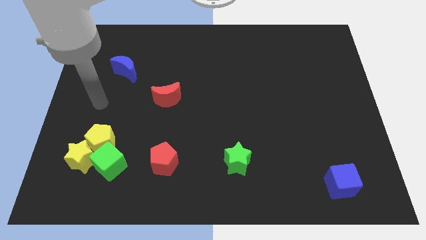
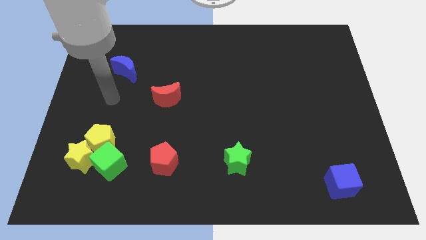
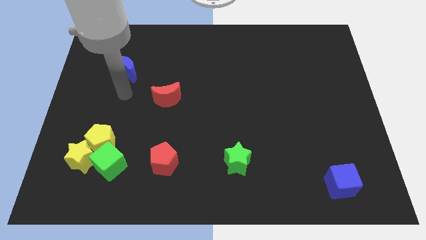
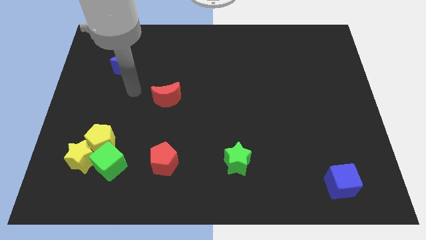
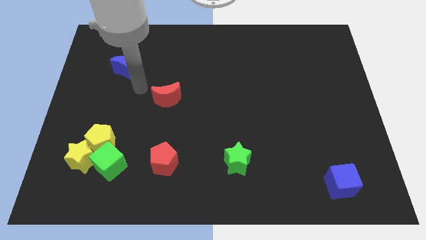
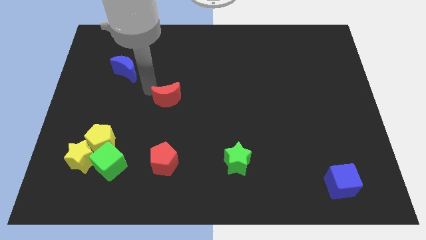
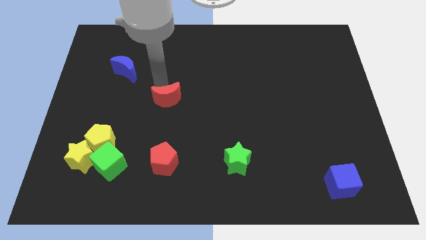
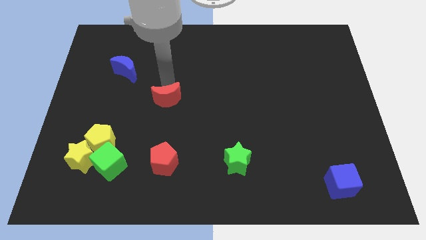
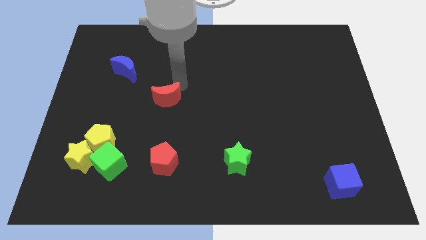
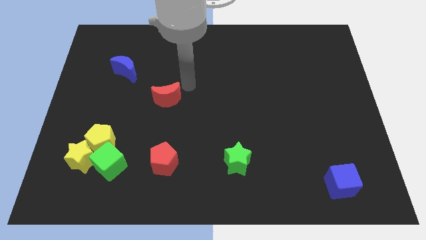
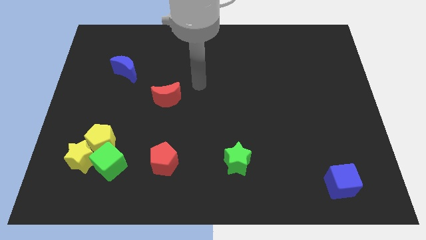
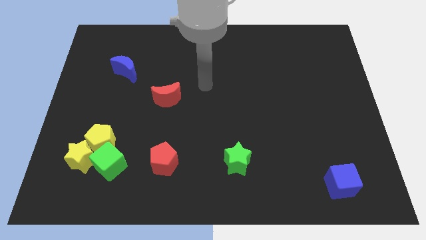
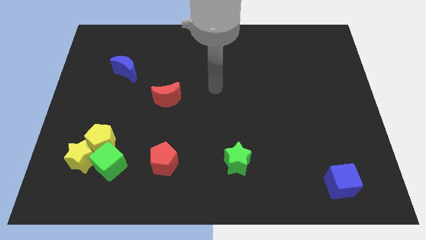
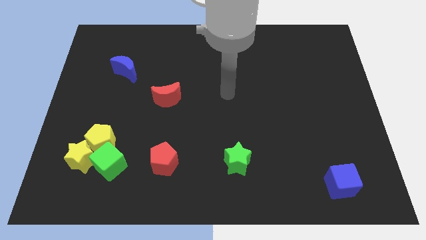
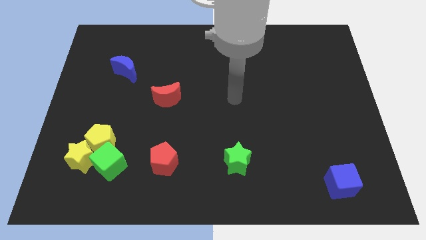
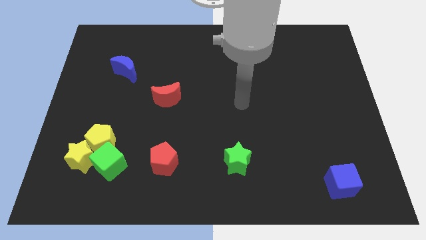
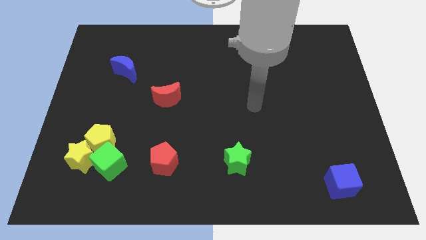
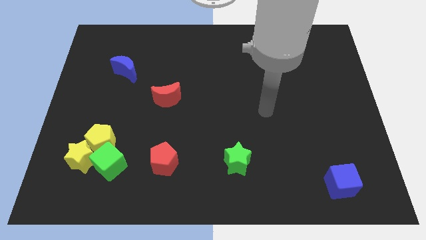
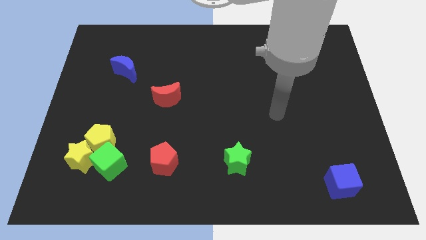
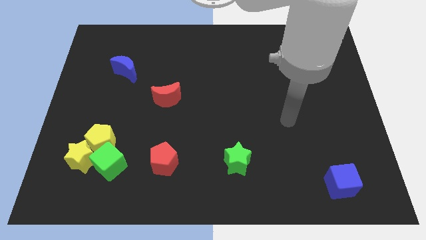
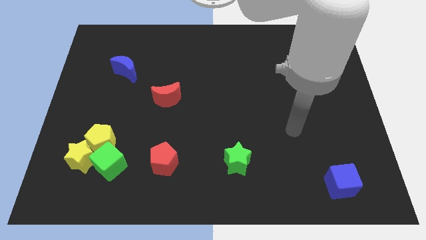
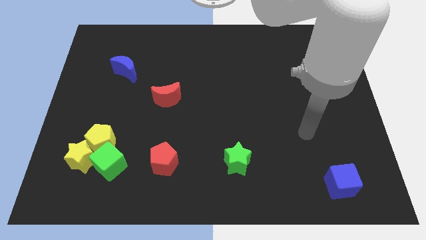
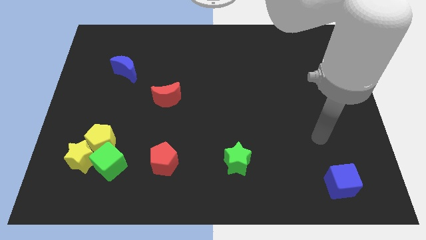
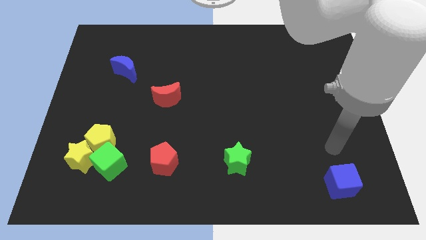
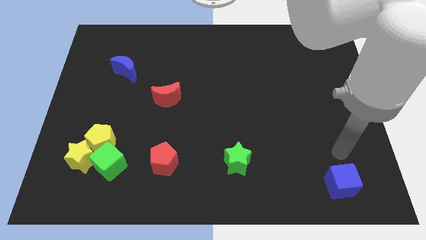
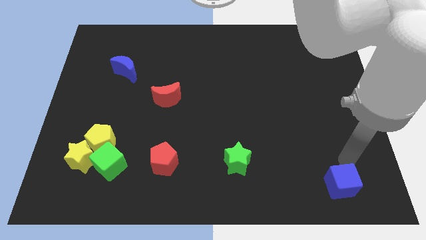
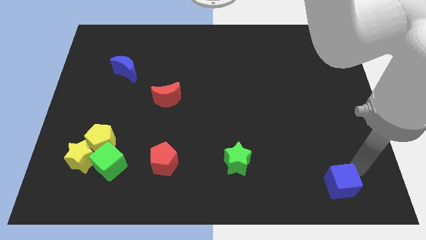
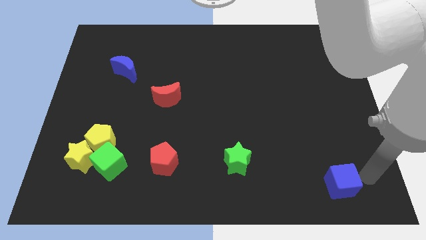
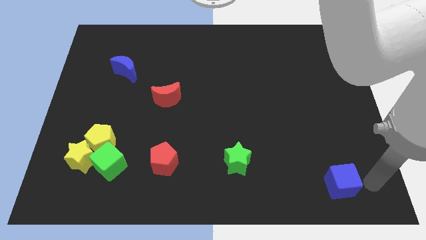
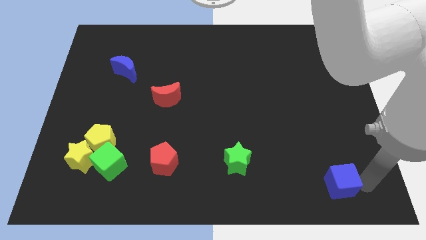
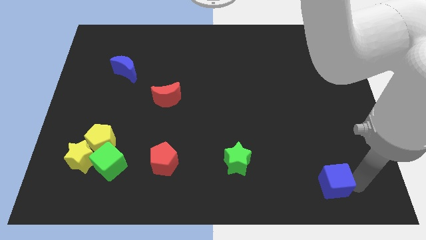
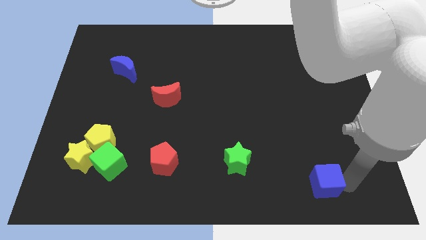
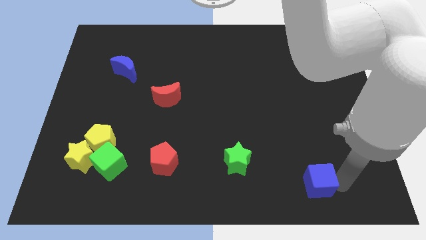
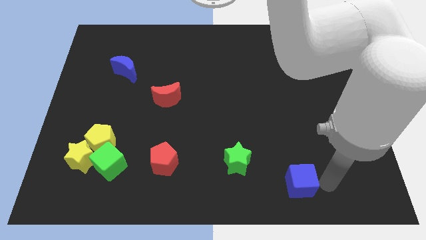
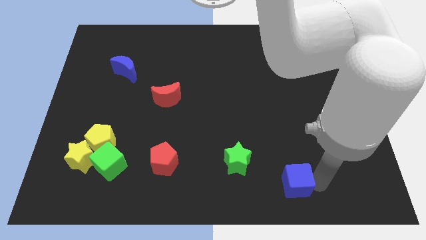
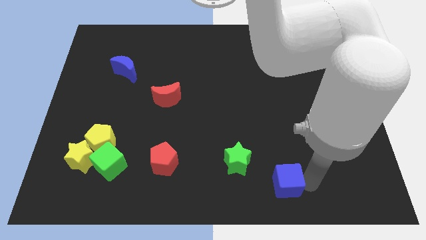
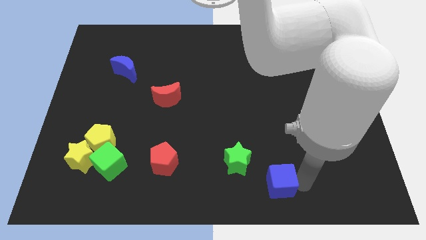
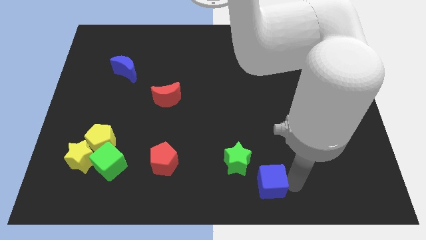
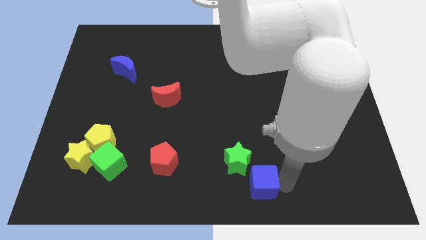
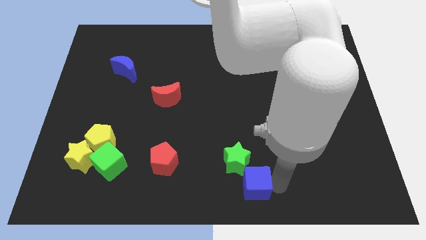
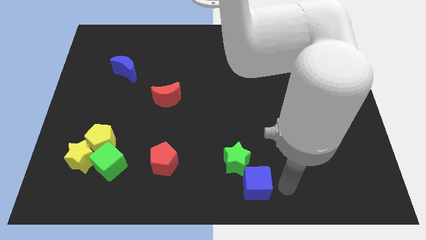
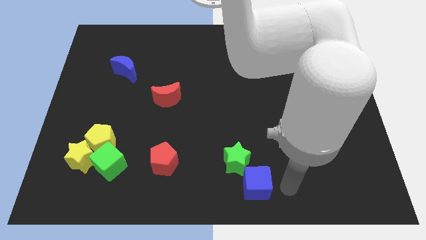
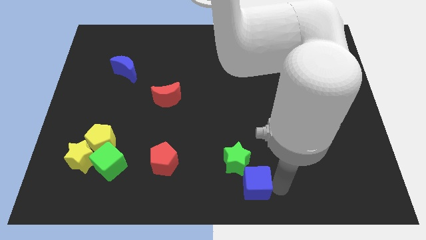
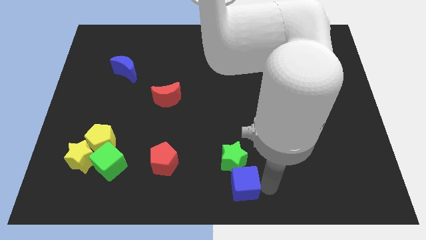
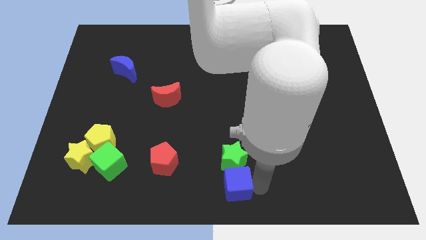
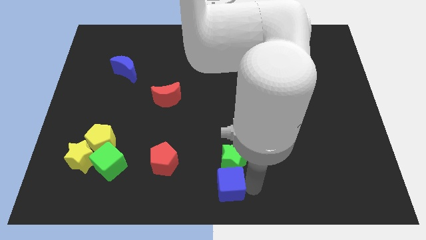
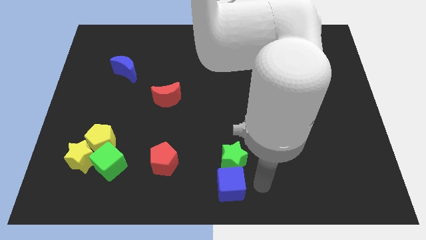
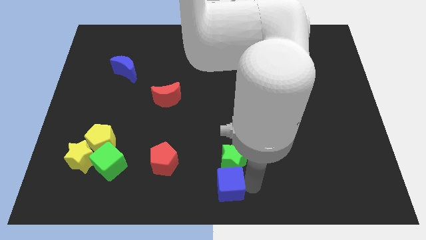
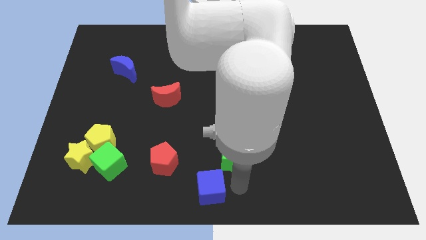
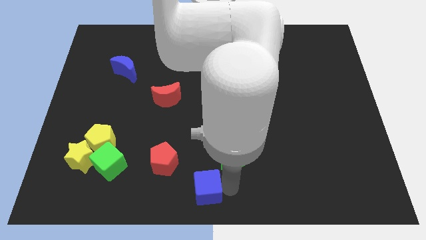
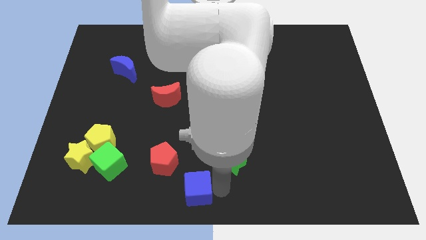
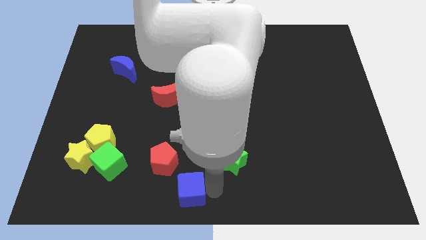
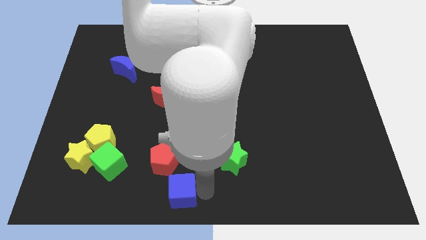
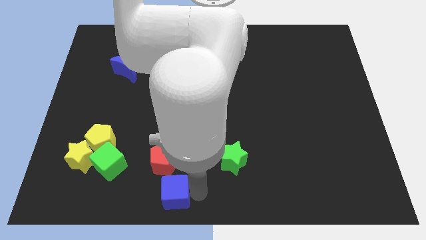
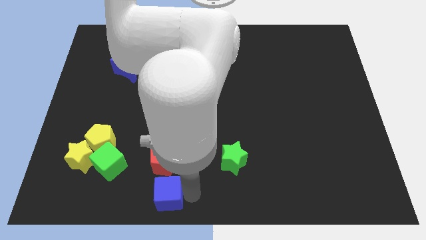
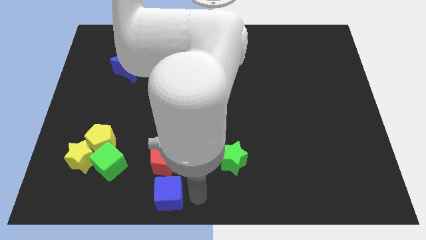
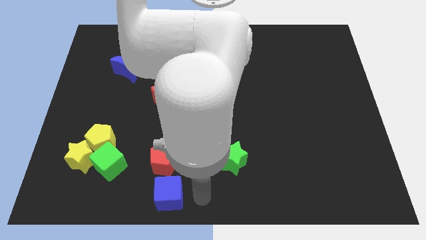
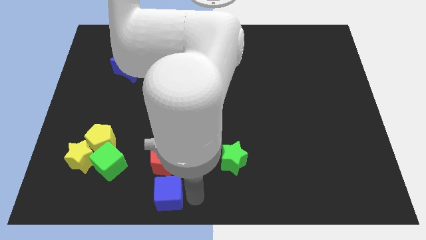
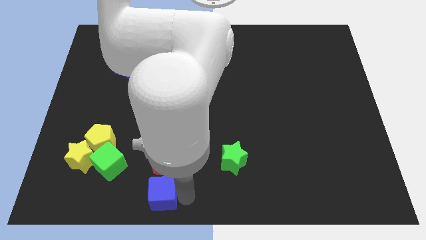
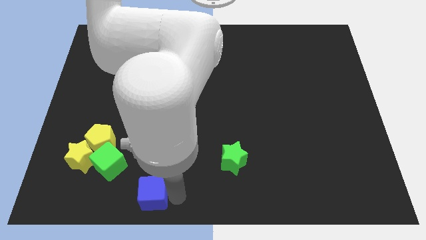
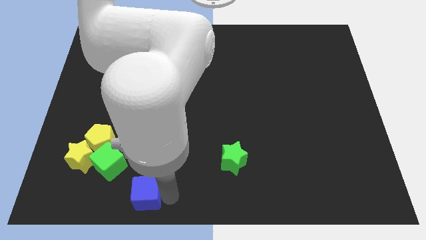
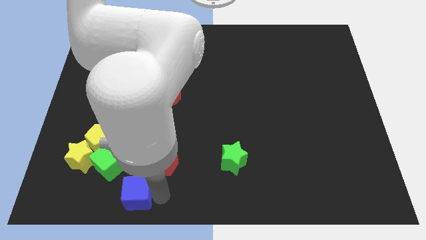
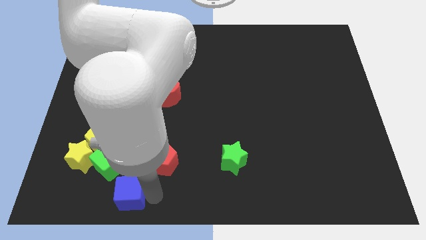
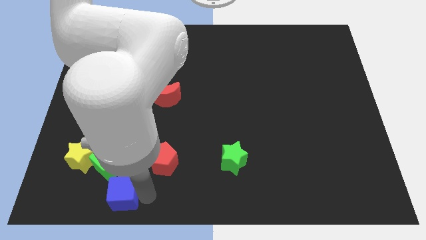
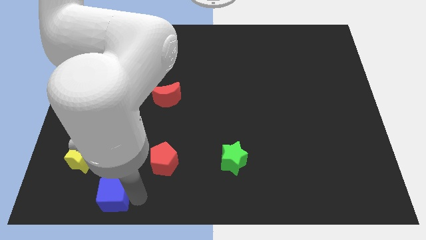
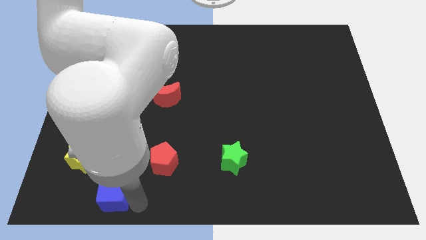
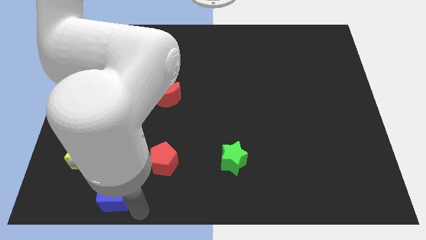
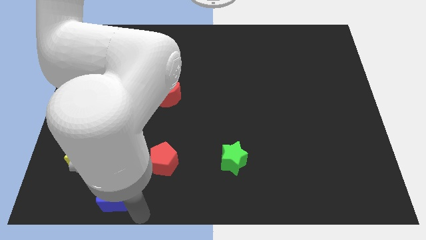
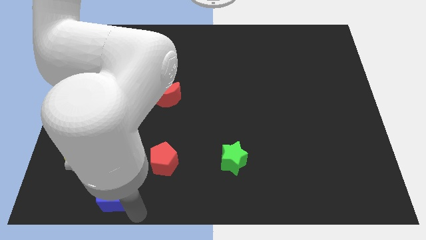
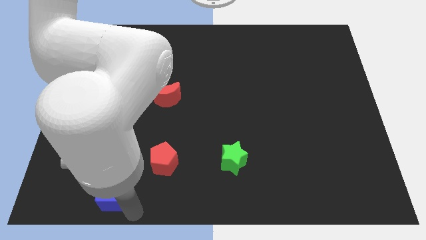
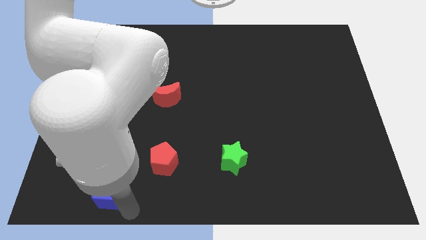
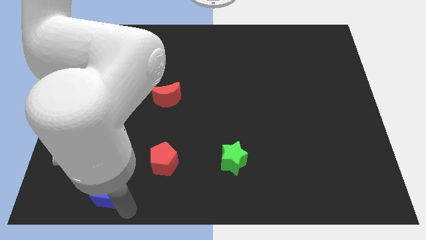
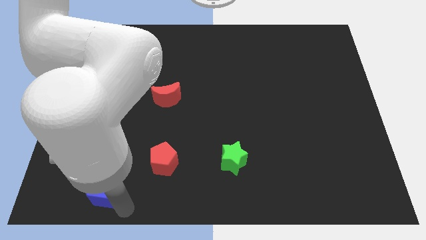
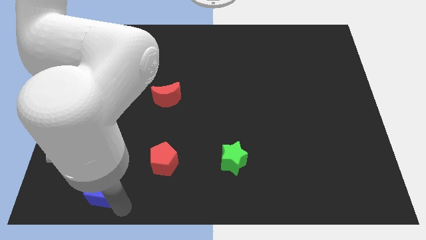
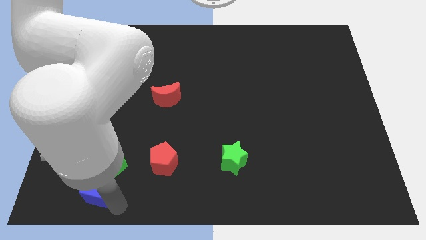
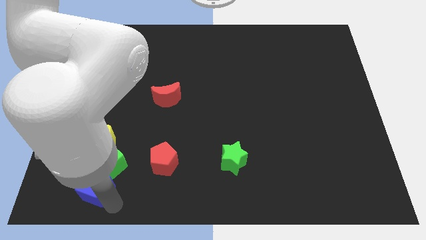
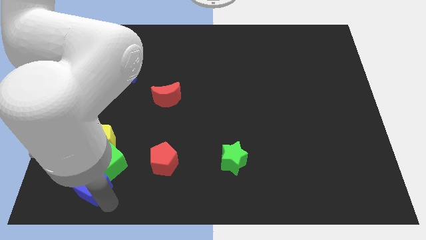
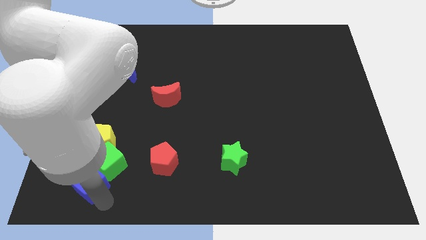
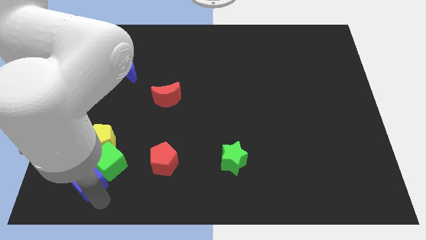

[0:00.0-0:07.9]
move the blue cube close to the yellow star
